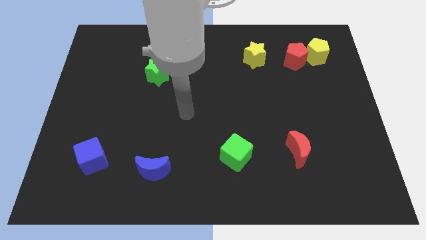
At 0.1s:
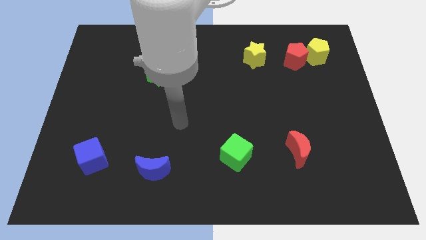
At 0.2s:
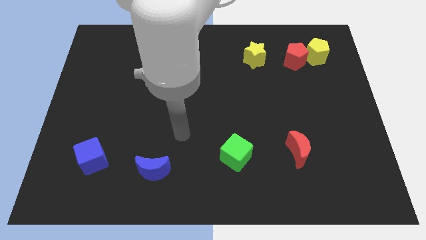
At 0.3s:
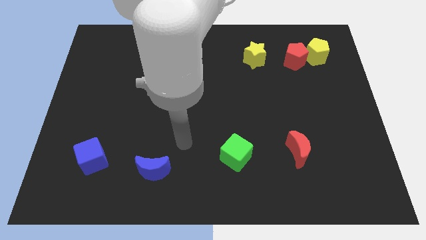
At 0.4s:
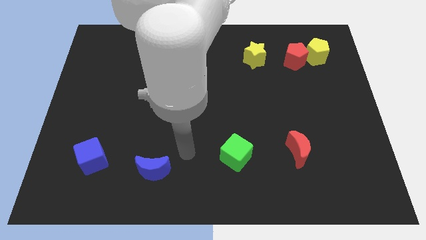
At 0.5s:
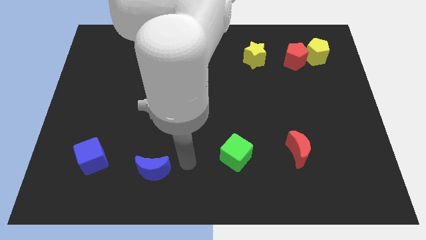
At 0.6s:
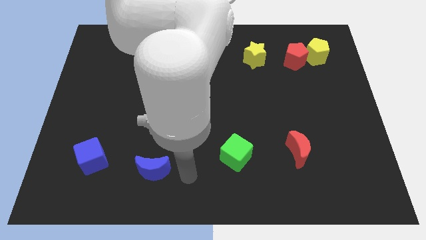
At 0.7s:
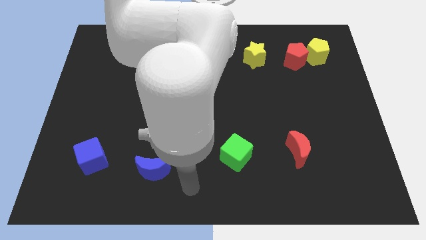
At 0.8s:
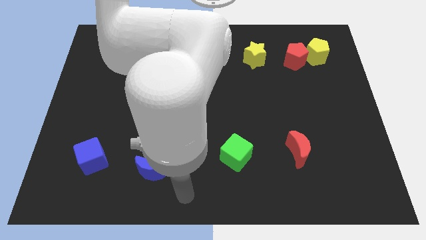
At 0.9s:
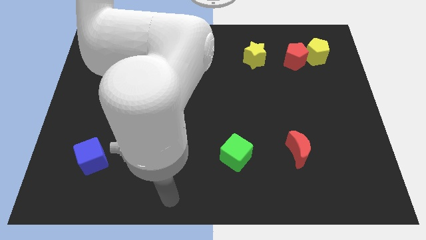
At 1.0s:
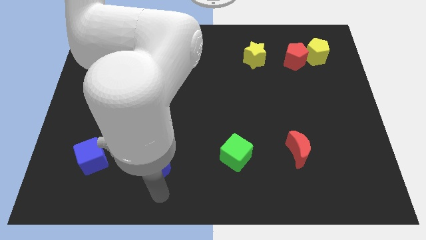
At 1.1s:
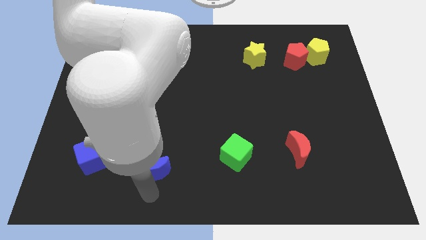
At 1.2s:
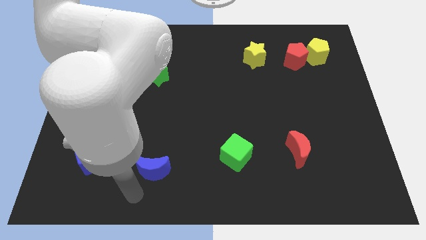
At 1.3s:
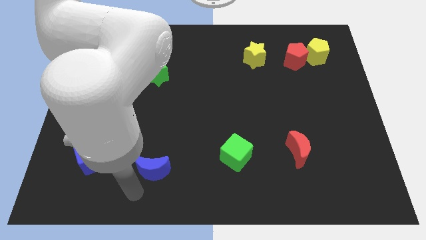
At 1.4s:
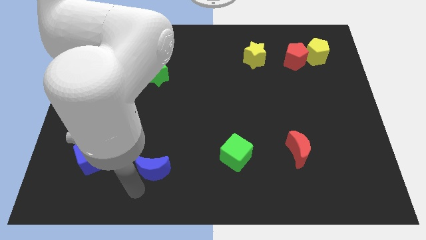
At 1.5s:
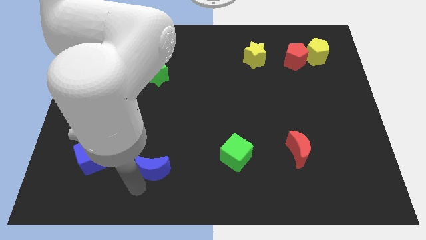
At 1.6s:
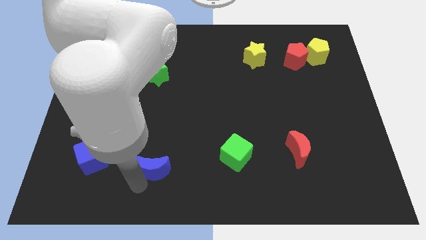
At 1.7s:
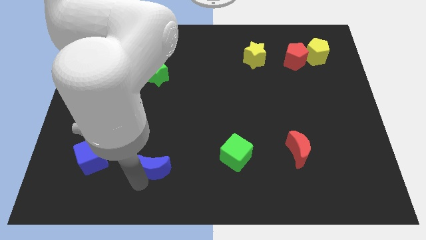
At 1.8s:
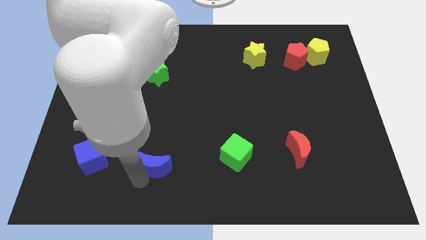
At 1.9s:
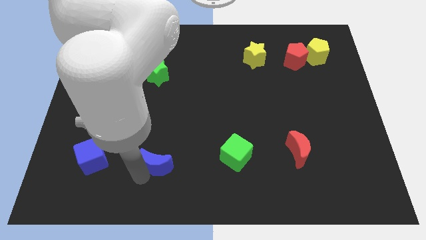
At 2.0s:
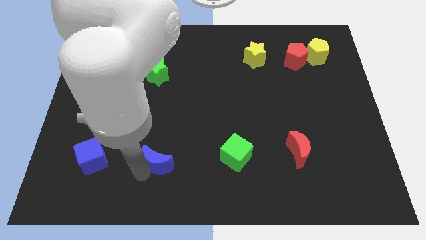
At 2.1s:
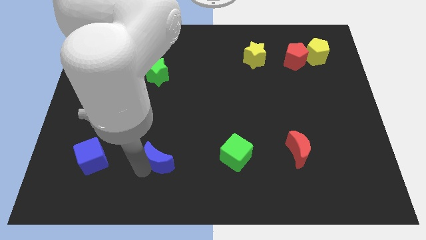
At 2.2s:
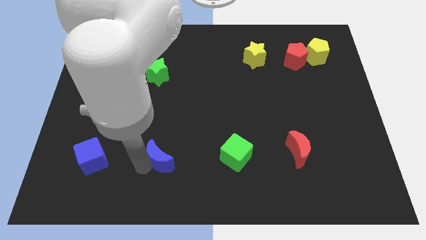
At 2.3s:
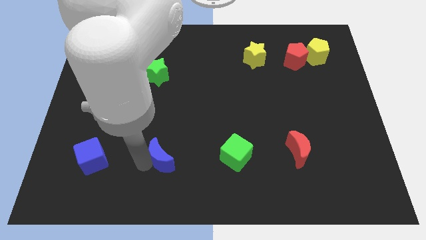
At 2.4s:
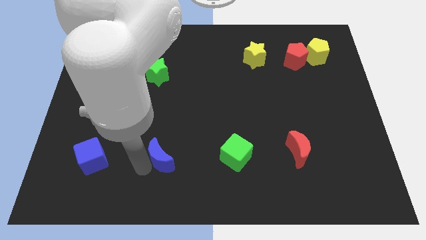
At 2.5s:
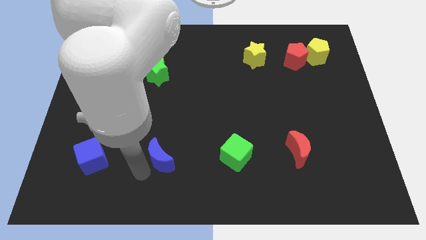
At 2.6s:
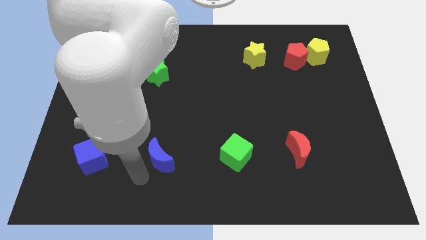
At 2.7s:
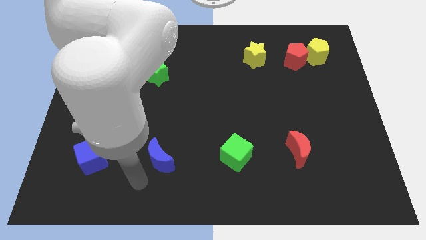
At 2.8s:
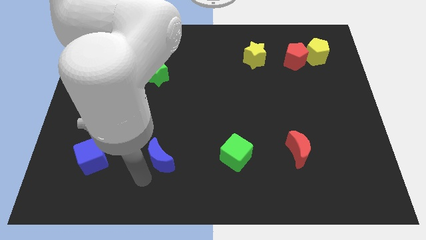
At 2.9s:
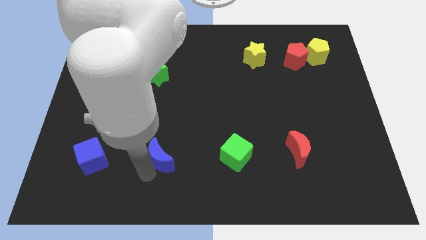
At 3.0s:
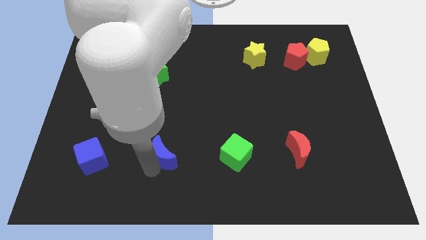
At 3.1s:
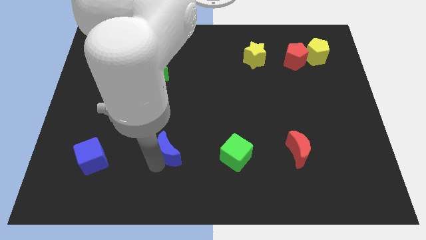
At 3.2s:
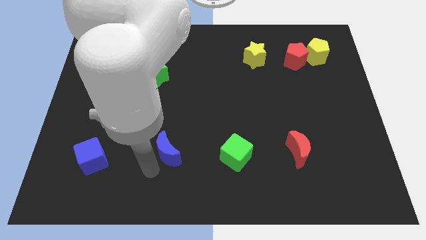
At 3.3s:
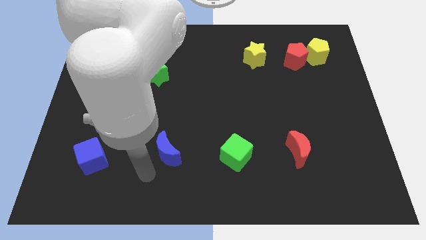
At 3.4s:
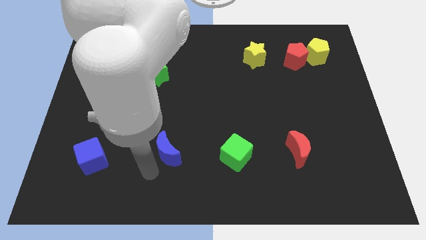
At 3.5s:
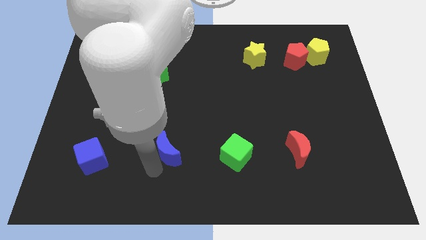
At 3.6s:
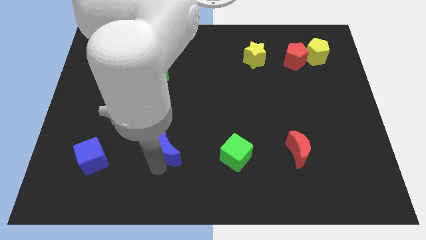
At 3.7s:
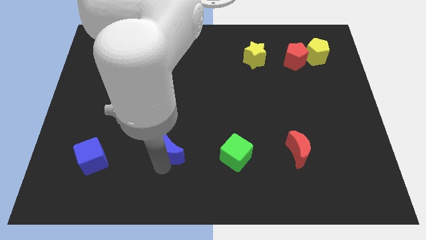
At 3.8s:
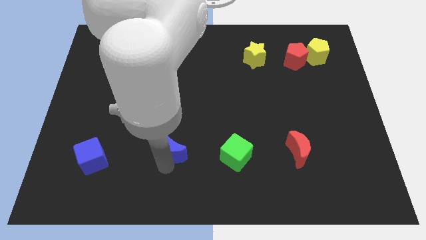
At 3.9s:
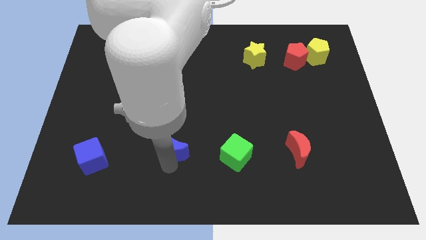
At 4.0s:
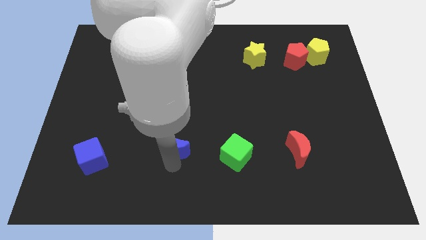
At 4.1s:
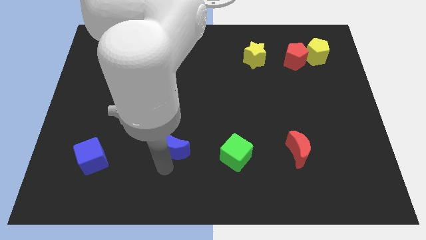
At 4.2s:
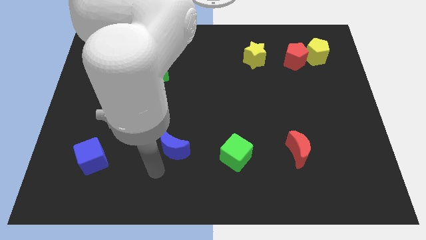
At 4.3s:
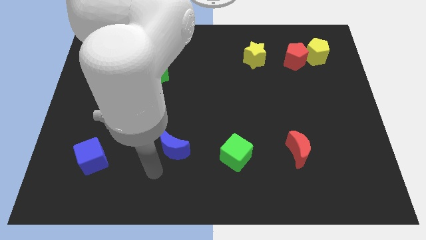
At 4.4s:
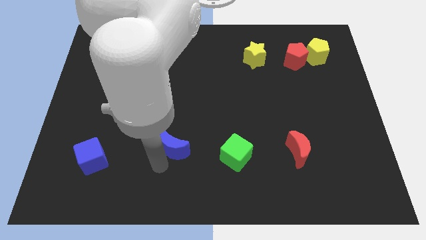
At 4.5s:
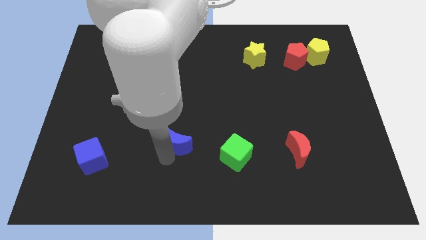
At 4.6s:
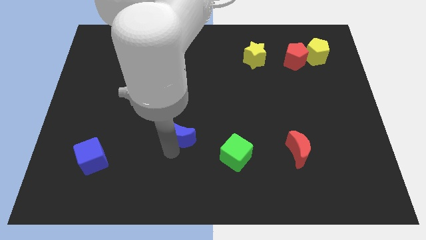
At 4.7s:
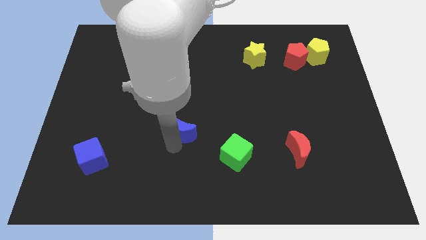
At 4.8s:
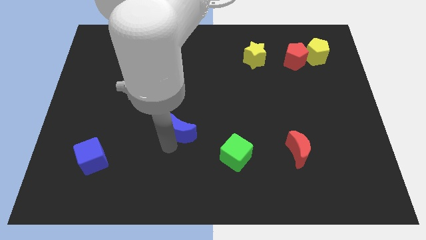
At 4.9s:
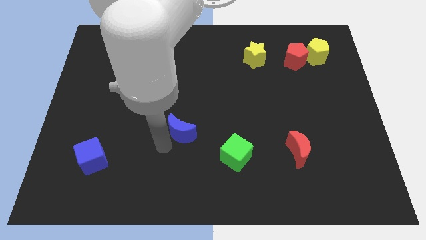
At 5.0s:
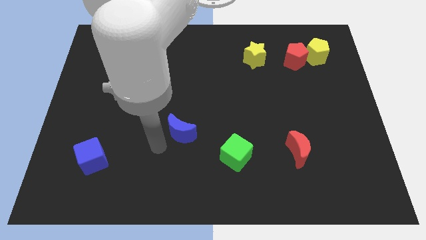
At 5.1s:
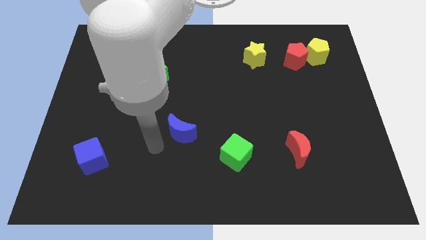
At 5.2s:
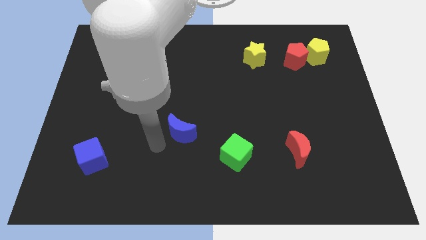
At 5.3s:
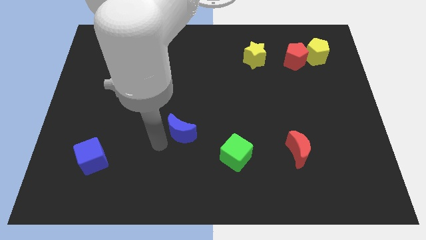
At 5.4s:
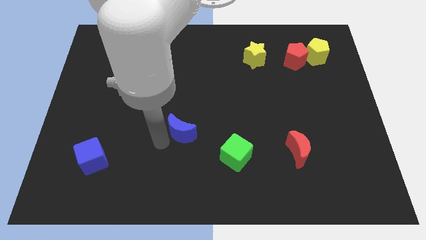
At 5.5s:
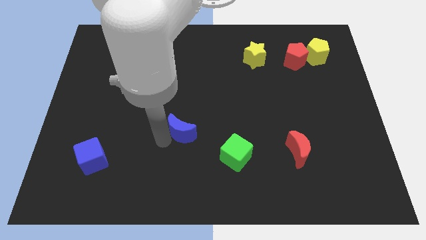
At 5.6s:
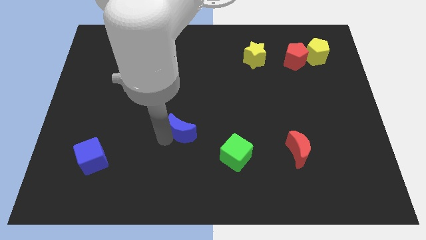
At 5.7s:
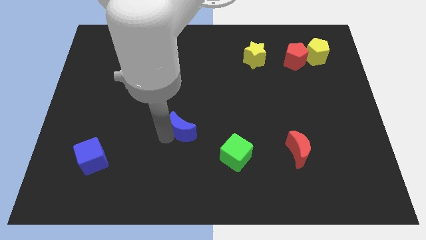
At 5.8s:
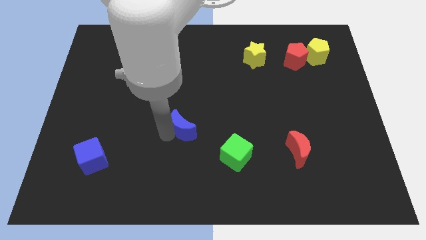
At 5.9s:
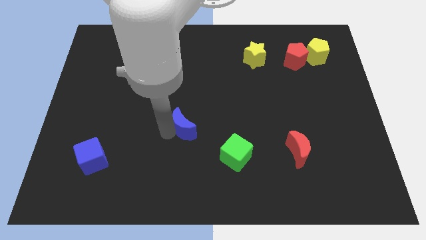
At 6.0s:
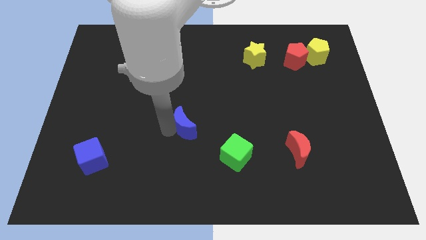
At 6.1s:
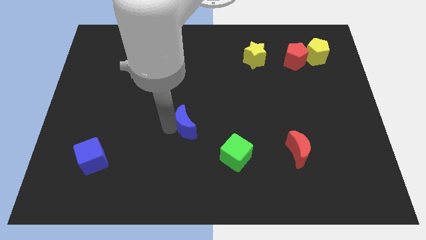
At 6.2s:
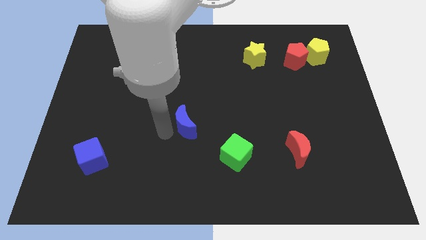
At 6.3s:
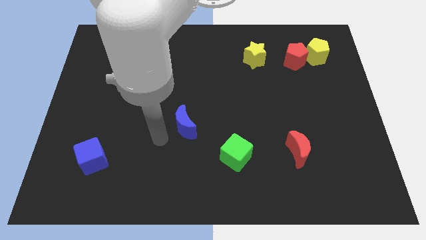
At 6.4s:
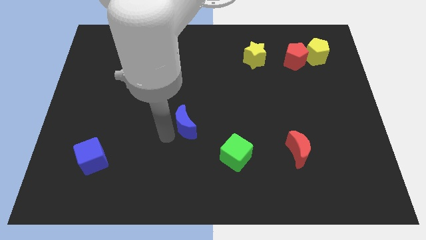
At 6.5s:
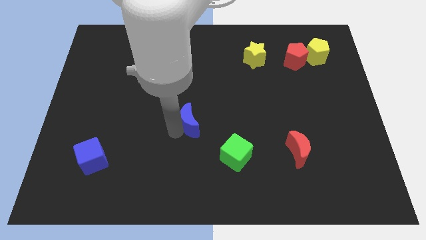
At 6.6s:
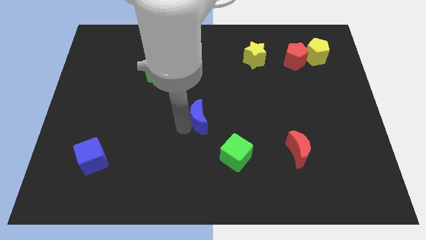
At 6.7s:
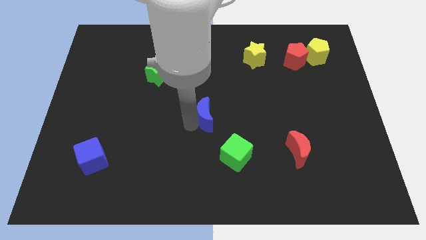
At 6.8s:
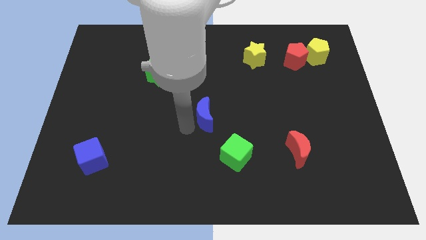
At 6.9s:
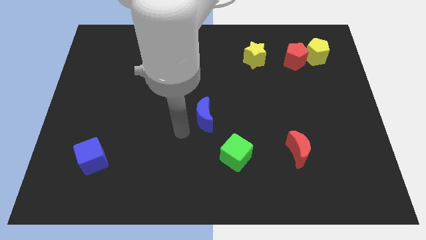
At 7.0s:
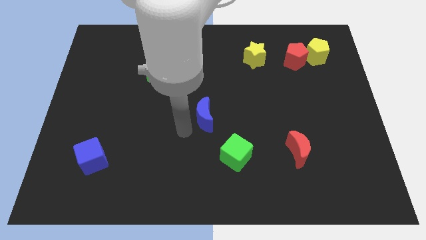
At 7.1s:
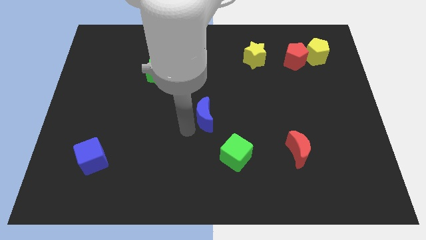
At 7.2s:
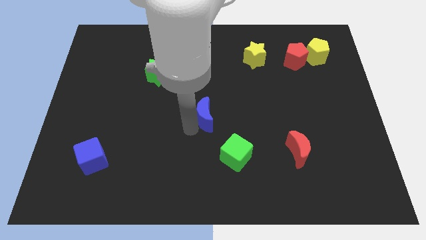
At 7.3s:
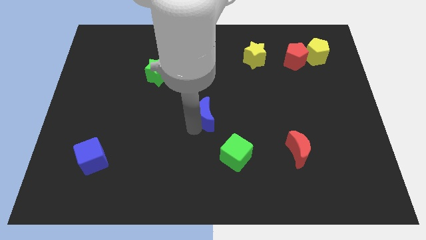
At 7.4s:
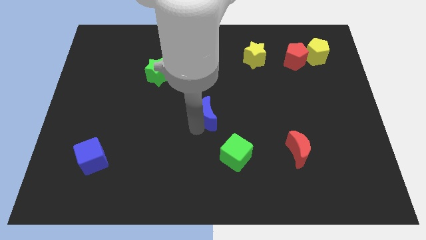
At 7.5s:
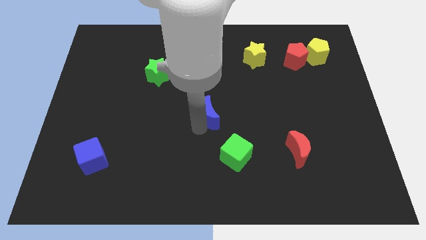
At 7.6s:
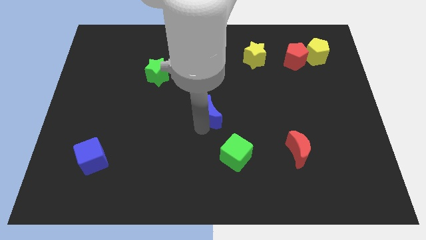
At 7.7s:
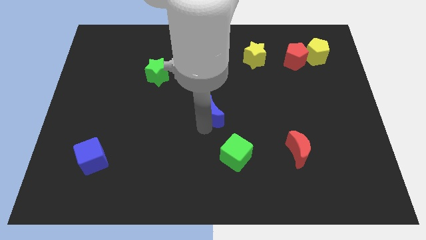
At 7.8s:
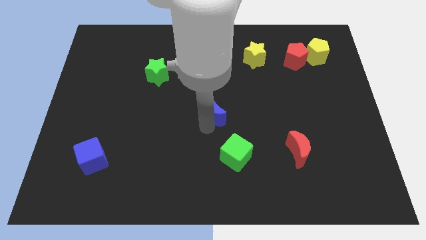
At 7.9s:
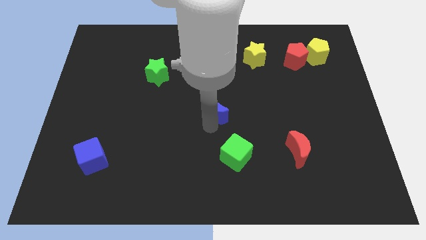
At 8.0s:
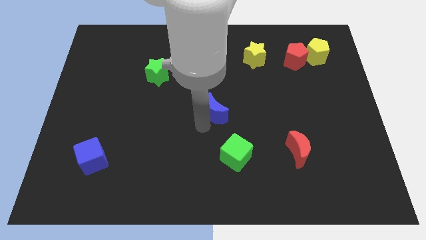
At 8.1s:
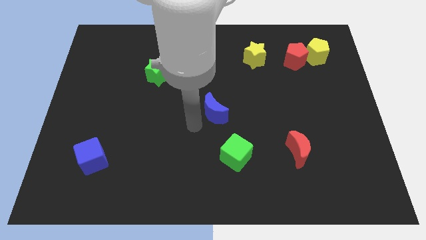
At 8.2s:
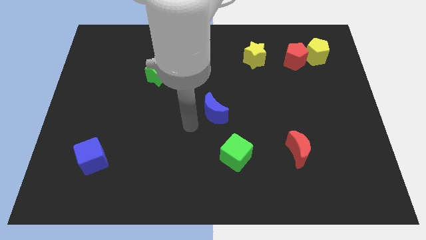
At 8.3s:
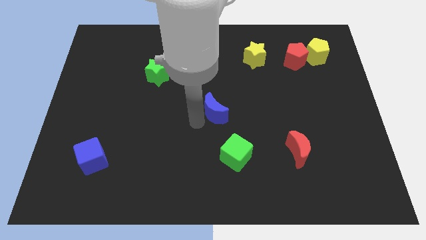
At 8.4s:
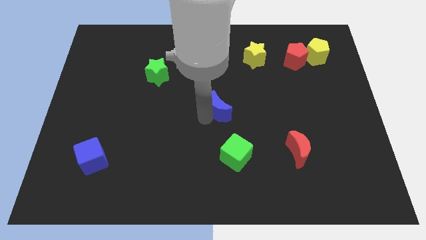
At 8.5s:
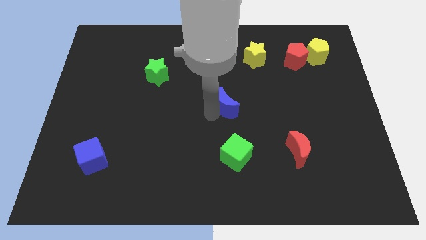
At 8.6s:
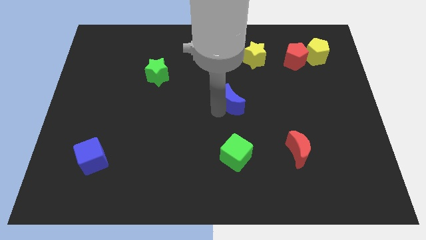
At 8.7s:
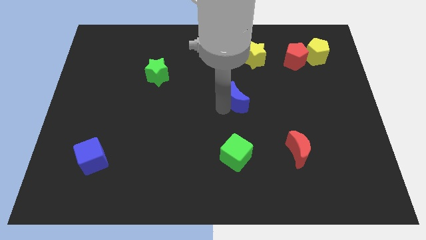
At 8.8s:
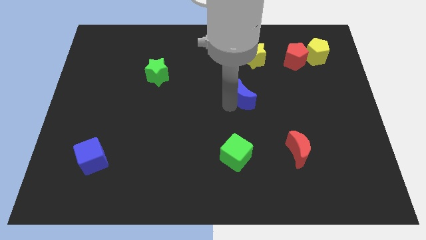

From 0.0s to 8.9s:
put the blue moon to the bottom of the yellow star
